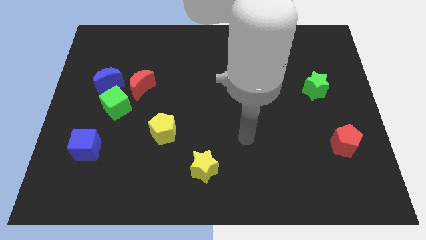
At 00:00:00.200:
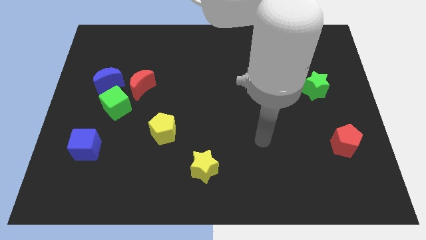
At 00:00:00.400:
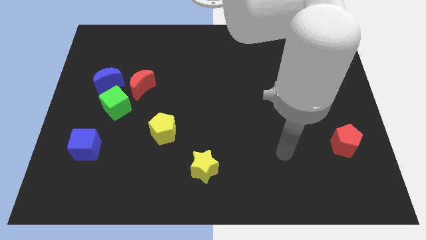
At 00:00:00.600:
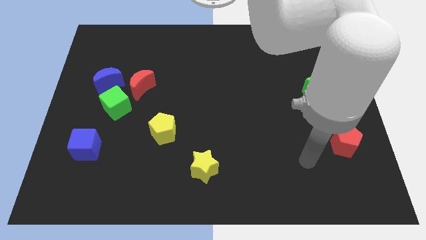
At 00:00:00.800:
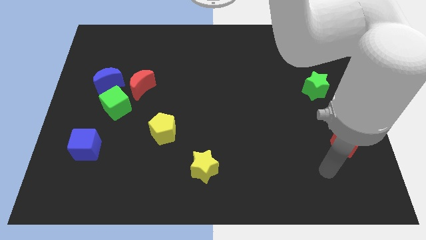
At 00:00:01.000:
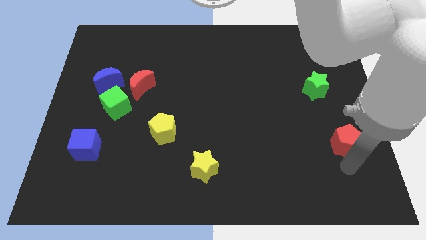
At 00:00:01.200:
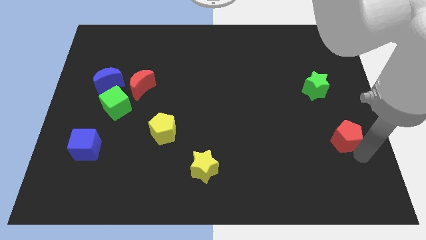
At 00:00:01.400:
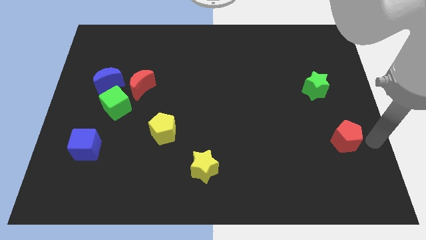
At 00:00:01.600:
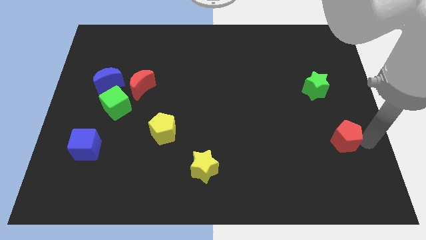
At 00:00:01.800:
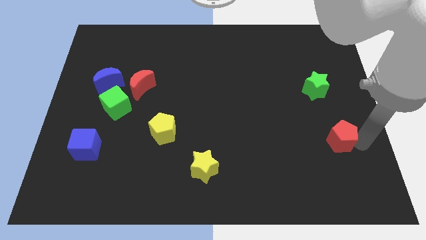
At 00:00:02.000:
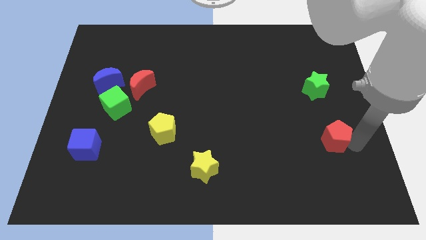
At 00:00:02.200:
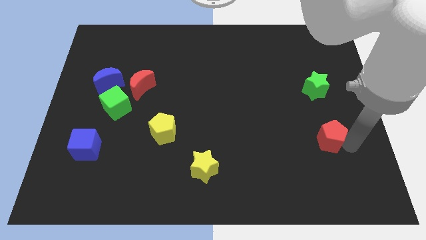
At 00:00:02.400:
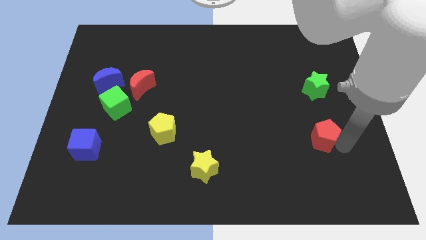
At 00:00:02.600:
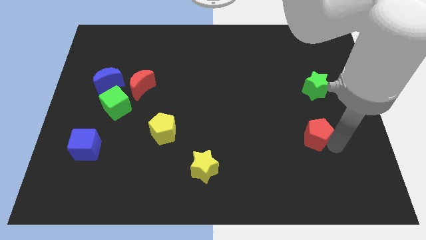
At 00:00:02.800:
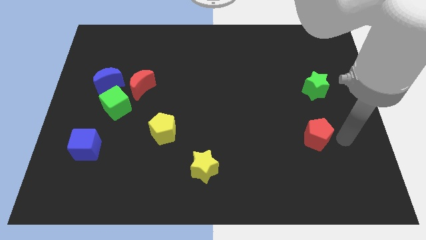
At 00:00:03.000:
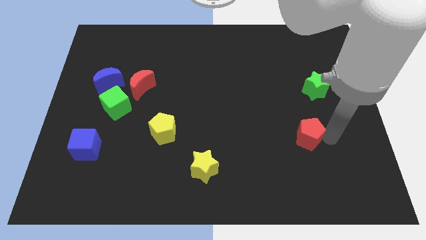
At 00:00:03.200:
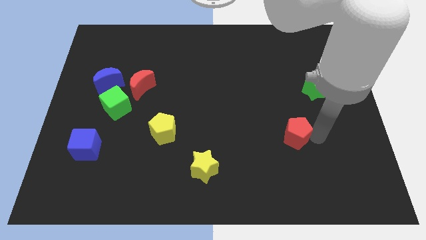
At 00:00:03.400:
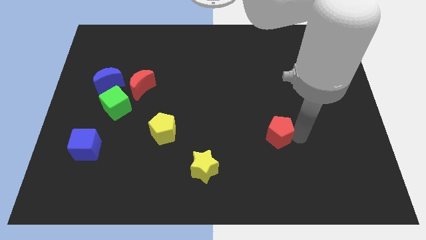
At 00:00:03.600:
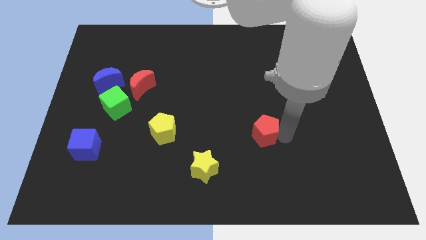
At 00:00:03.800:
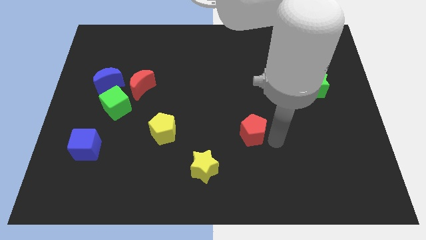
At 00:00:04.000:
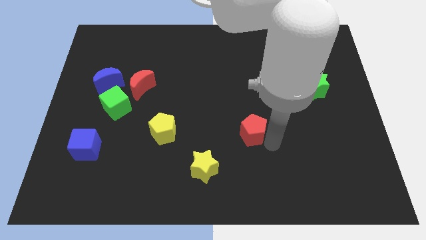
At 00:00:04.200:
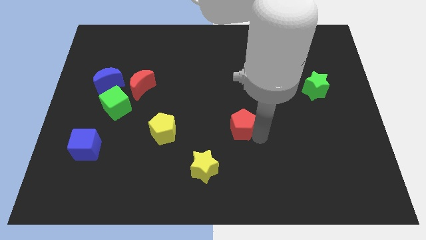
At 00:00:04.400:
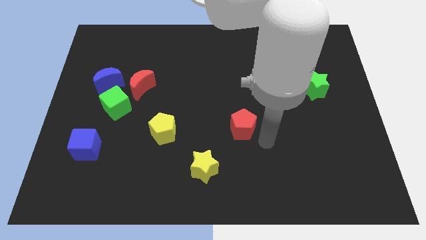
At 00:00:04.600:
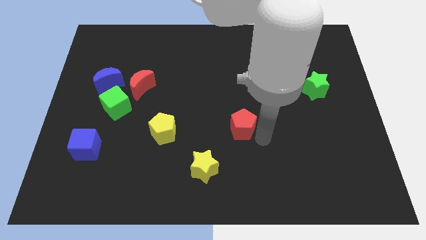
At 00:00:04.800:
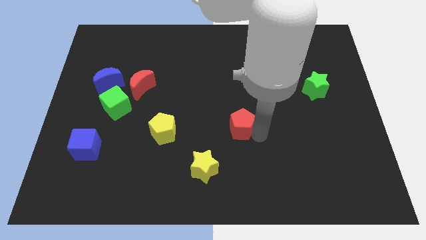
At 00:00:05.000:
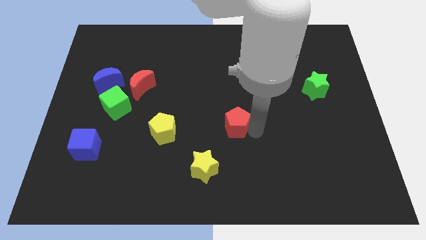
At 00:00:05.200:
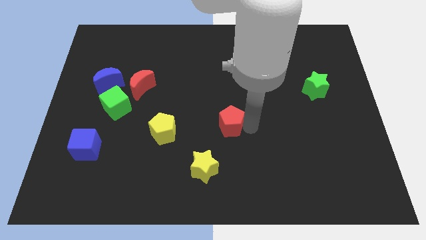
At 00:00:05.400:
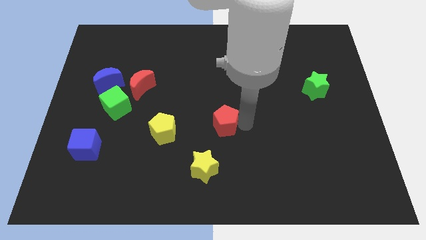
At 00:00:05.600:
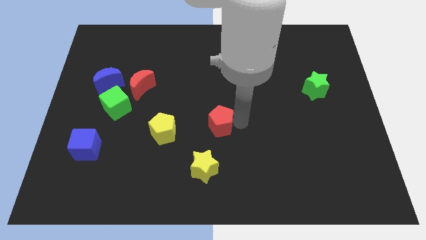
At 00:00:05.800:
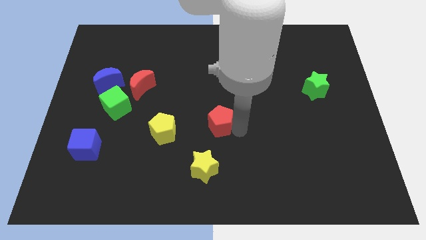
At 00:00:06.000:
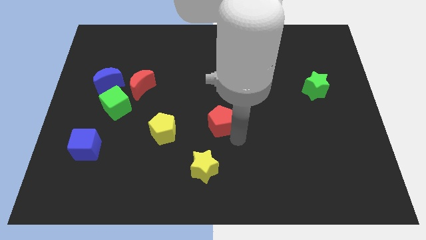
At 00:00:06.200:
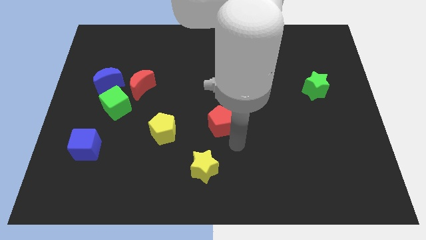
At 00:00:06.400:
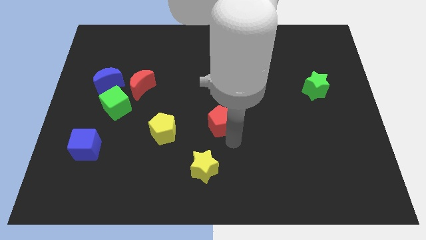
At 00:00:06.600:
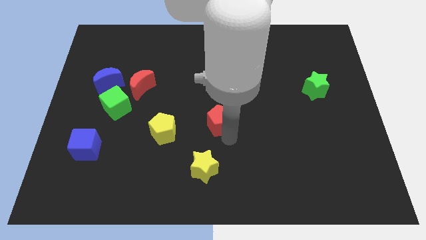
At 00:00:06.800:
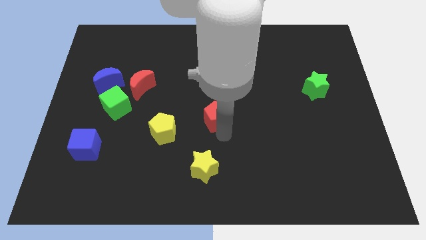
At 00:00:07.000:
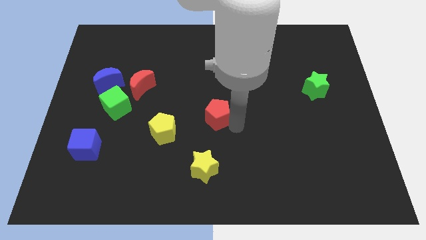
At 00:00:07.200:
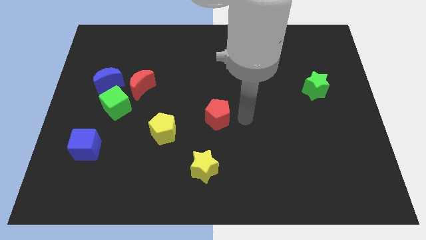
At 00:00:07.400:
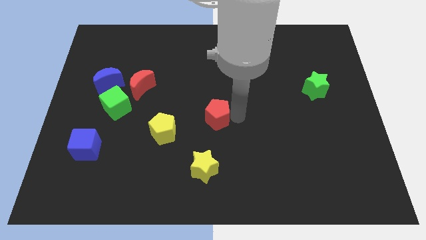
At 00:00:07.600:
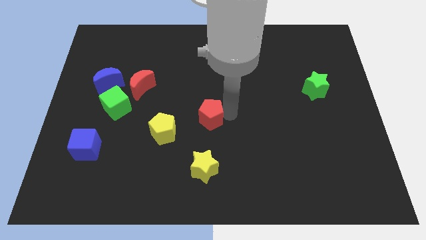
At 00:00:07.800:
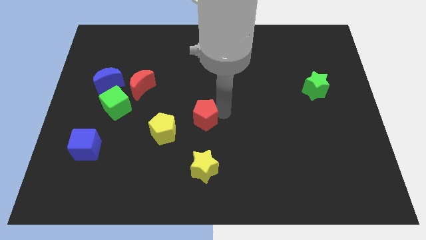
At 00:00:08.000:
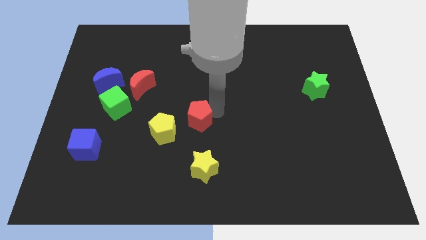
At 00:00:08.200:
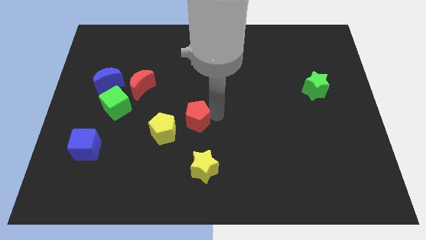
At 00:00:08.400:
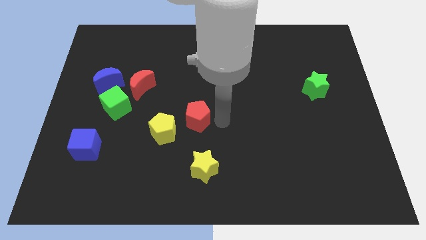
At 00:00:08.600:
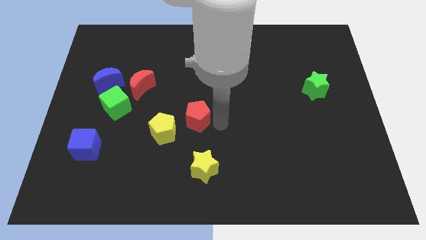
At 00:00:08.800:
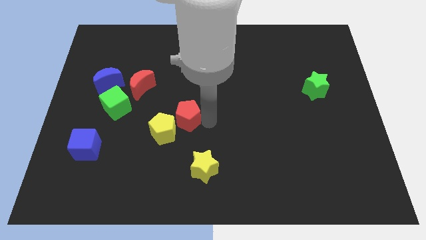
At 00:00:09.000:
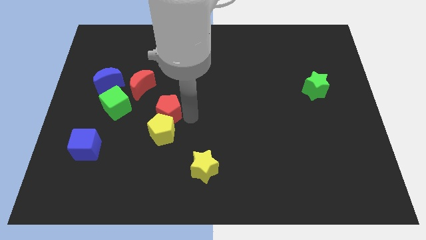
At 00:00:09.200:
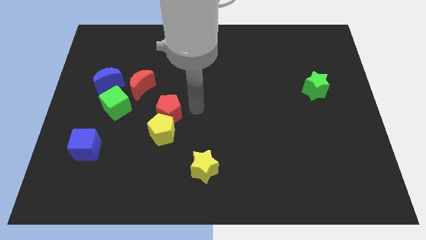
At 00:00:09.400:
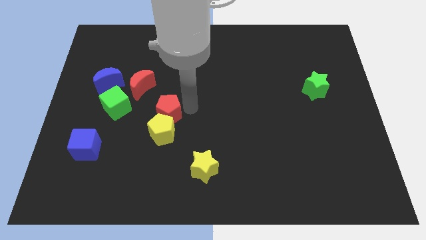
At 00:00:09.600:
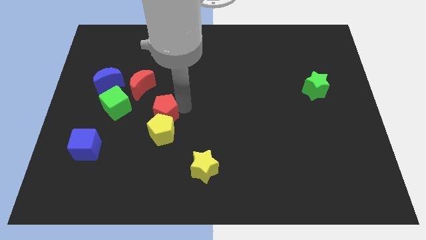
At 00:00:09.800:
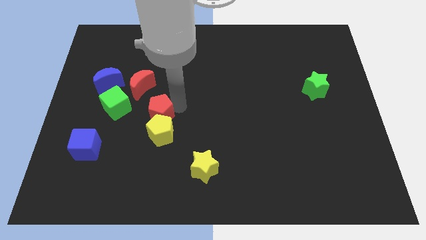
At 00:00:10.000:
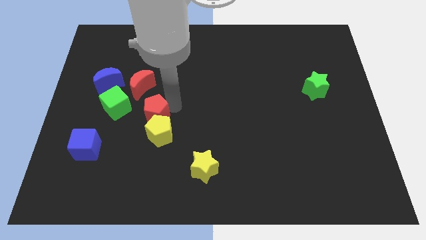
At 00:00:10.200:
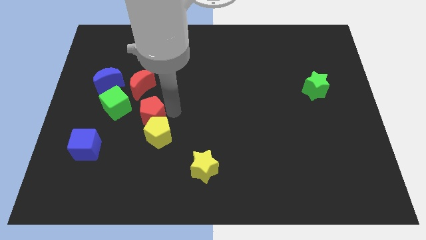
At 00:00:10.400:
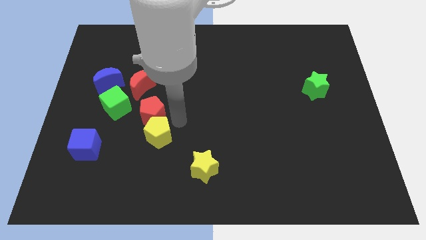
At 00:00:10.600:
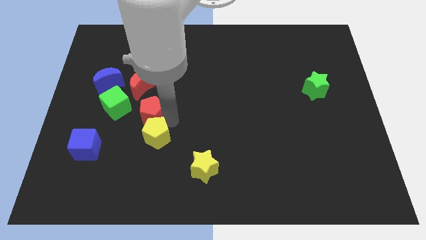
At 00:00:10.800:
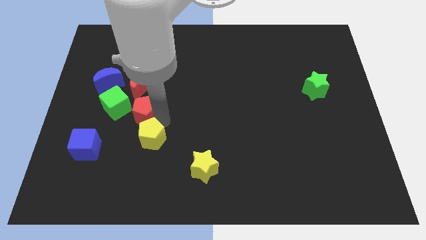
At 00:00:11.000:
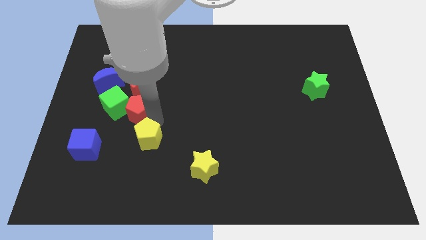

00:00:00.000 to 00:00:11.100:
move the red pentagon close to the green cube

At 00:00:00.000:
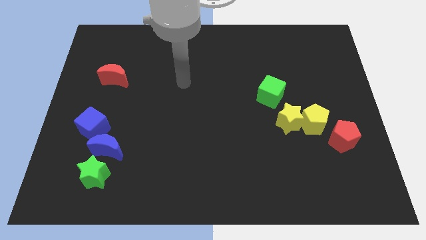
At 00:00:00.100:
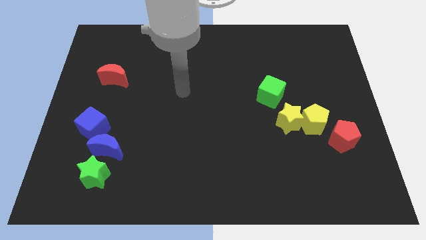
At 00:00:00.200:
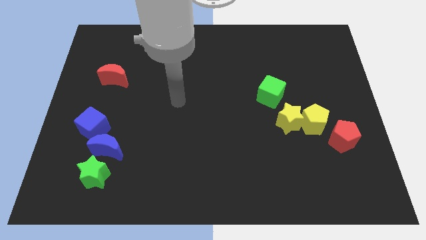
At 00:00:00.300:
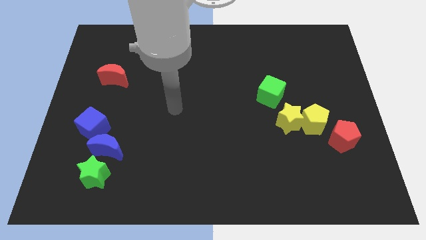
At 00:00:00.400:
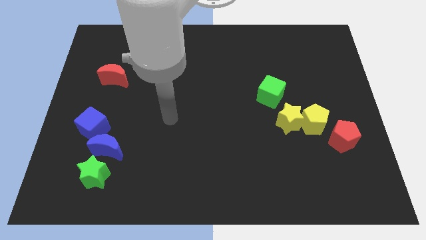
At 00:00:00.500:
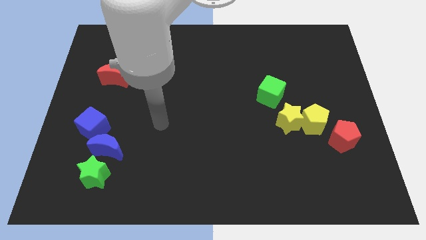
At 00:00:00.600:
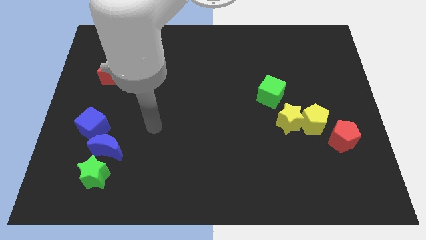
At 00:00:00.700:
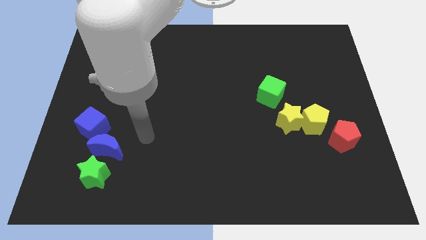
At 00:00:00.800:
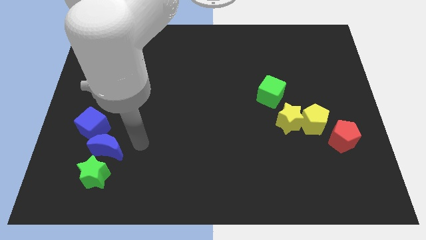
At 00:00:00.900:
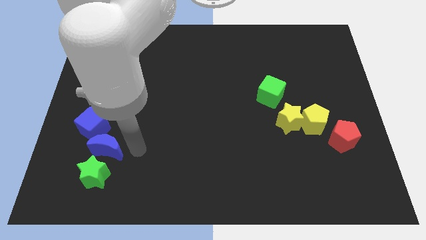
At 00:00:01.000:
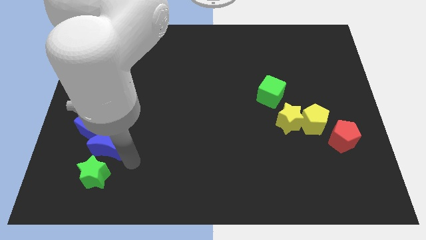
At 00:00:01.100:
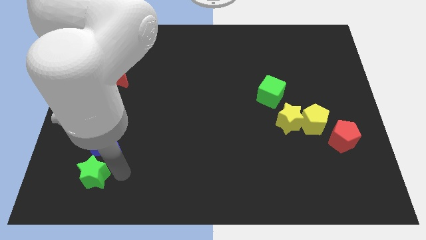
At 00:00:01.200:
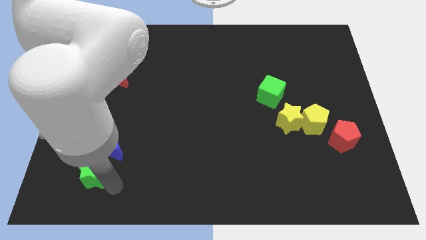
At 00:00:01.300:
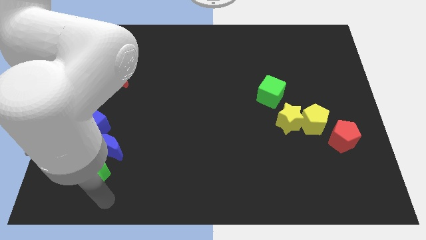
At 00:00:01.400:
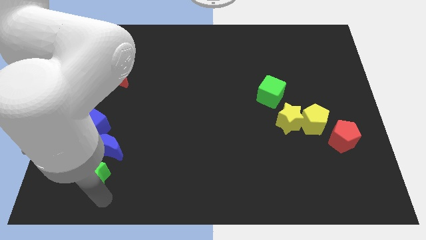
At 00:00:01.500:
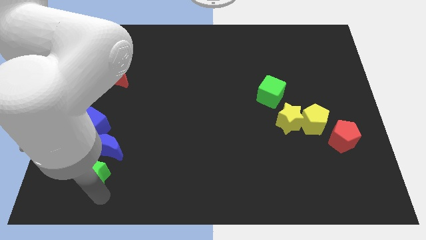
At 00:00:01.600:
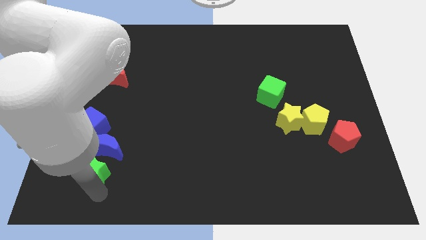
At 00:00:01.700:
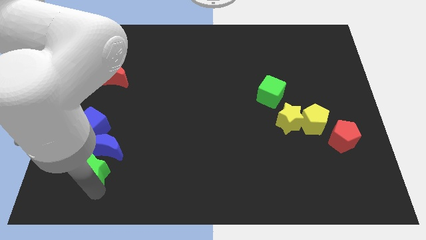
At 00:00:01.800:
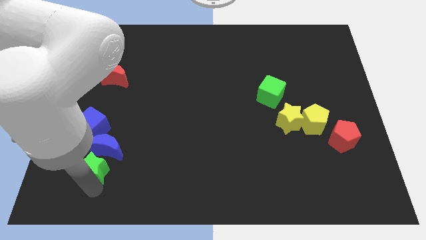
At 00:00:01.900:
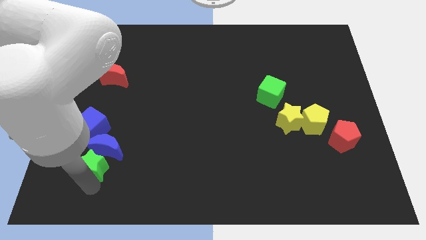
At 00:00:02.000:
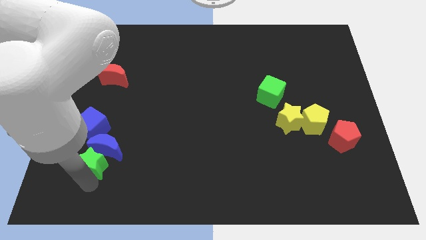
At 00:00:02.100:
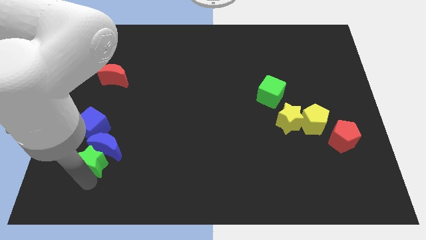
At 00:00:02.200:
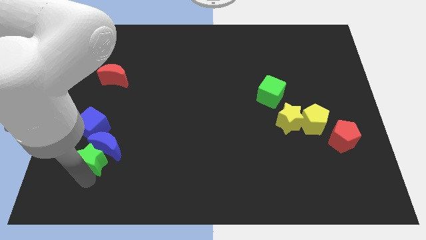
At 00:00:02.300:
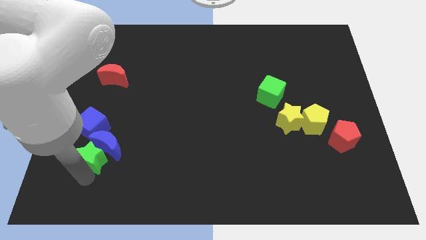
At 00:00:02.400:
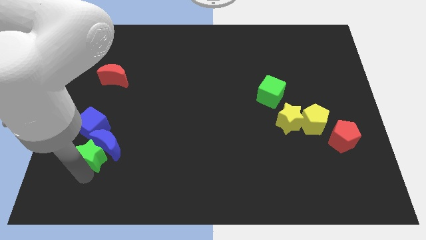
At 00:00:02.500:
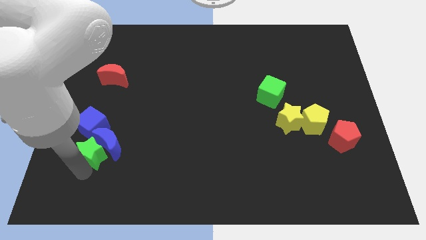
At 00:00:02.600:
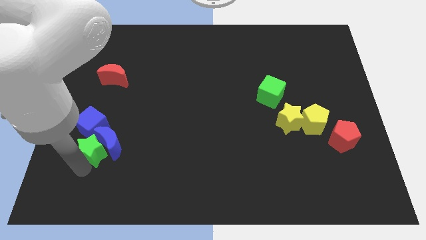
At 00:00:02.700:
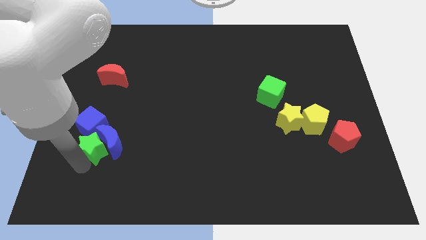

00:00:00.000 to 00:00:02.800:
push the green star next to the blue cube
